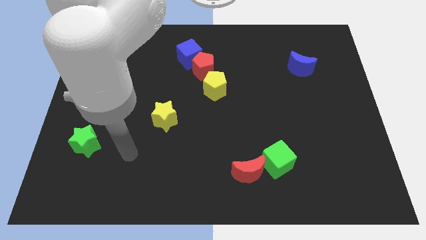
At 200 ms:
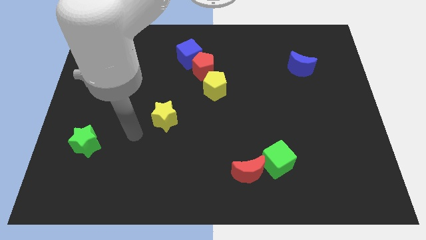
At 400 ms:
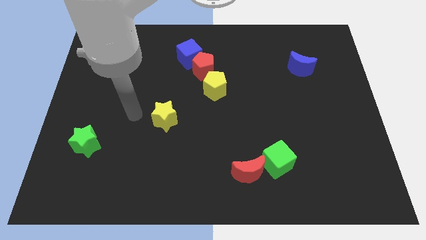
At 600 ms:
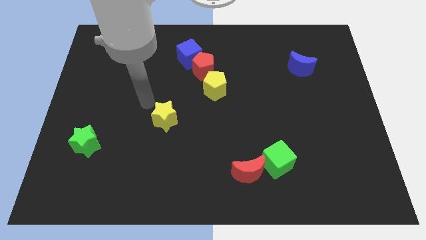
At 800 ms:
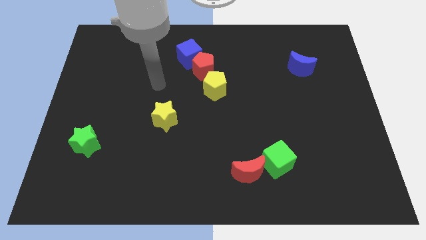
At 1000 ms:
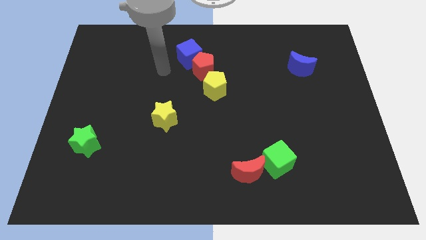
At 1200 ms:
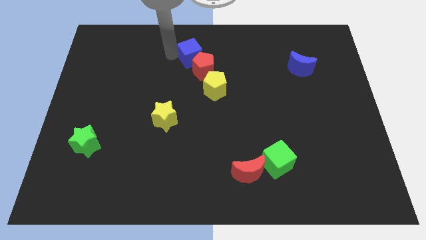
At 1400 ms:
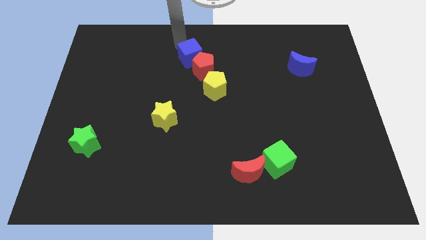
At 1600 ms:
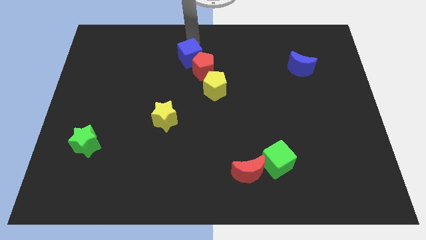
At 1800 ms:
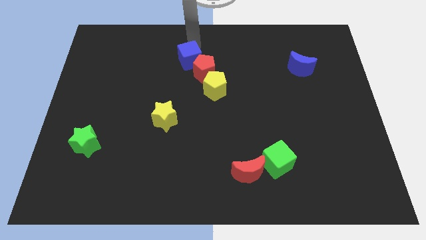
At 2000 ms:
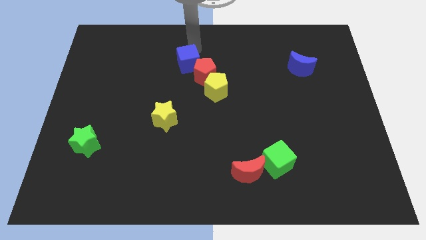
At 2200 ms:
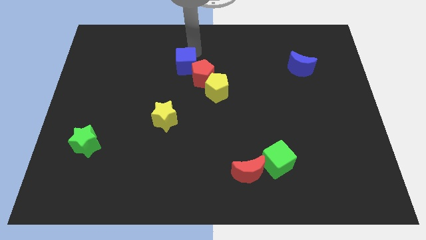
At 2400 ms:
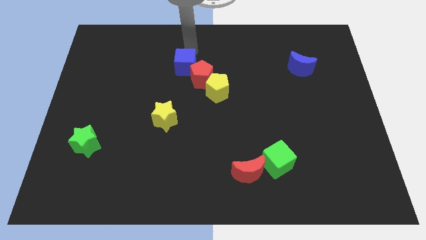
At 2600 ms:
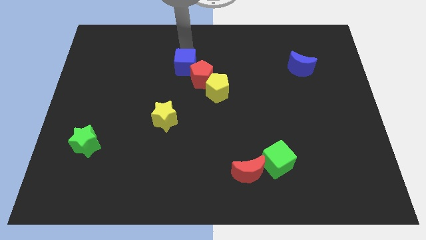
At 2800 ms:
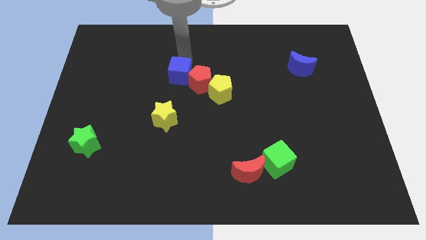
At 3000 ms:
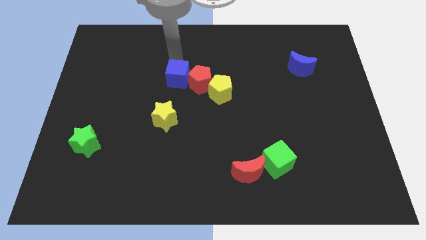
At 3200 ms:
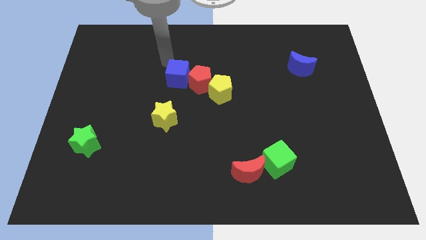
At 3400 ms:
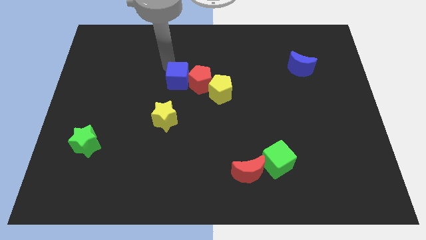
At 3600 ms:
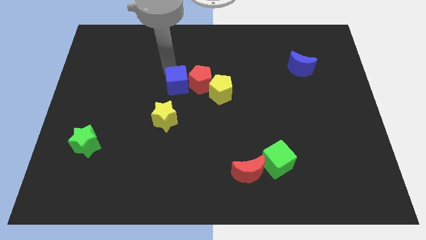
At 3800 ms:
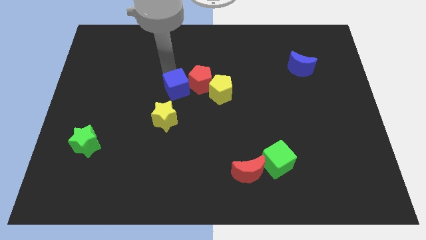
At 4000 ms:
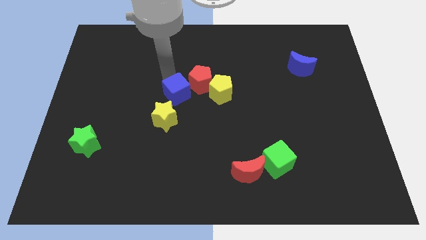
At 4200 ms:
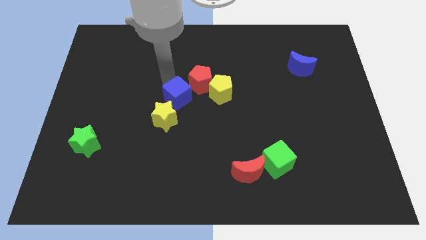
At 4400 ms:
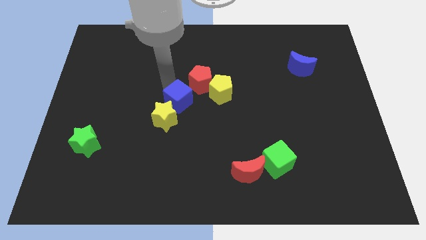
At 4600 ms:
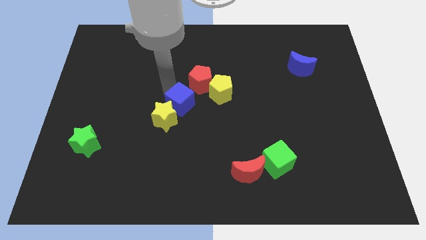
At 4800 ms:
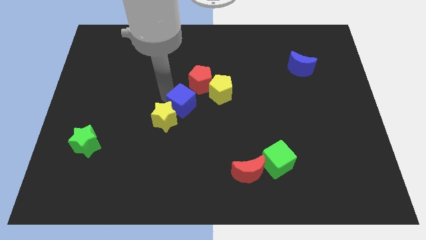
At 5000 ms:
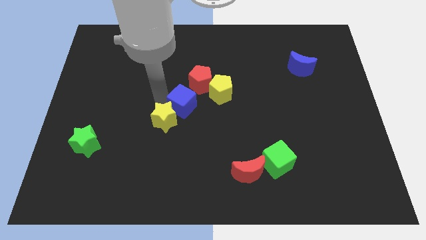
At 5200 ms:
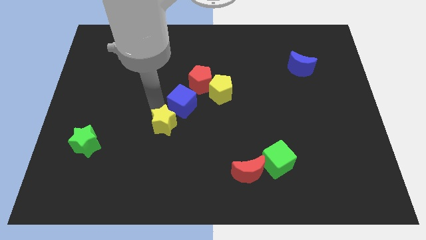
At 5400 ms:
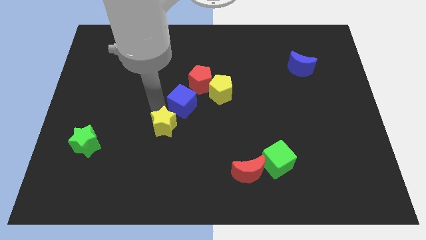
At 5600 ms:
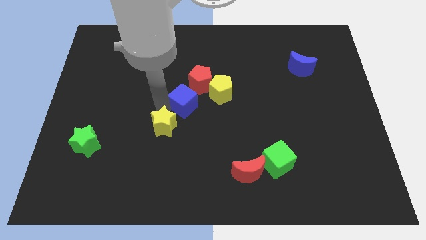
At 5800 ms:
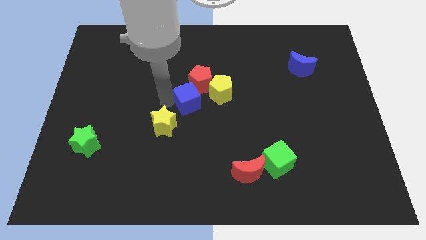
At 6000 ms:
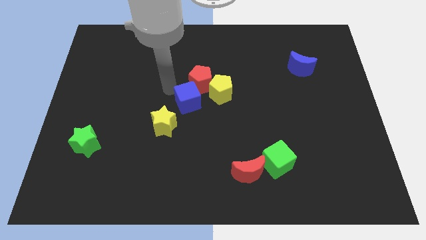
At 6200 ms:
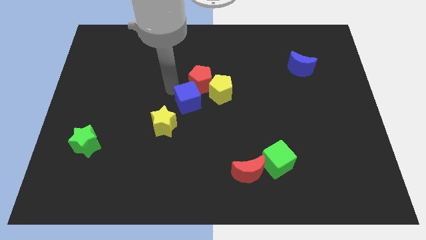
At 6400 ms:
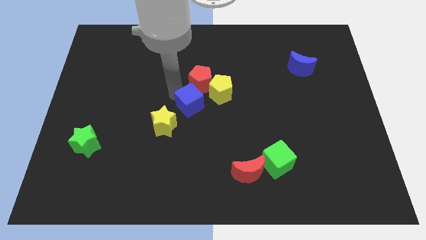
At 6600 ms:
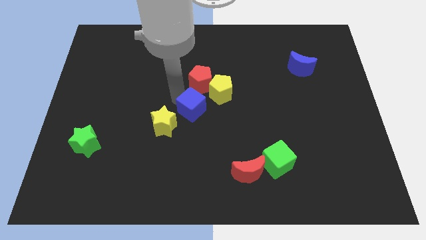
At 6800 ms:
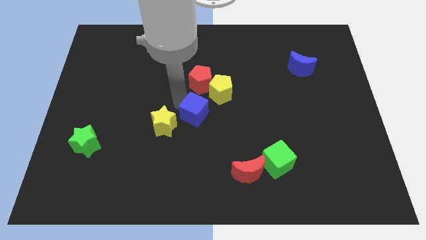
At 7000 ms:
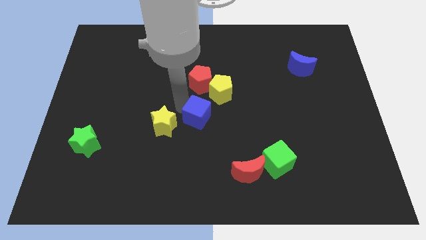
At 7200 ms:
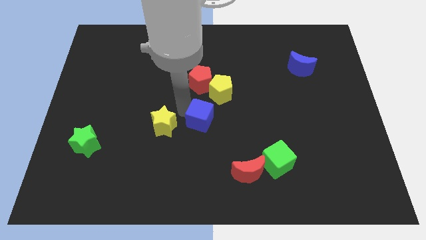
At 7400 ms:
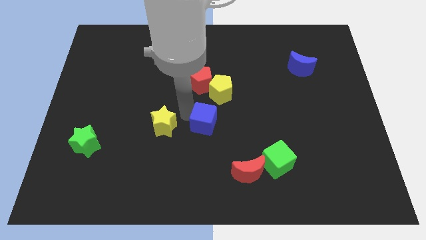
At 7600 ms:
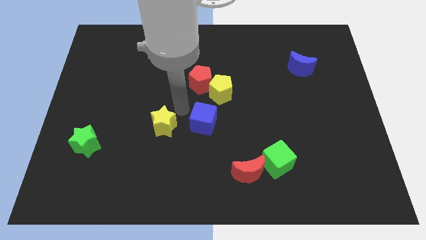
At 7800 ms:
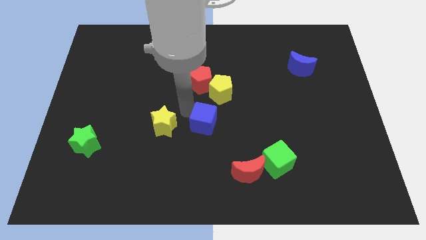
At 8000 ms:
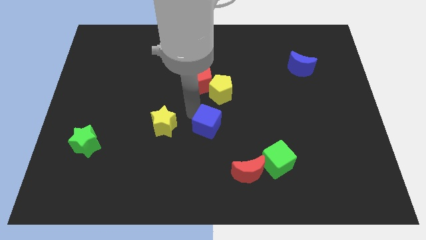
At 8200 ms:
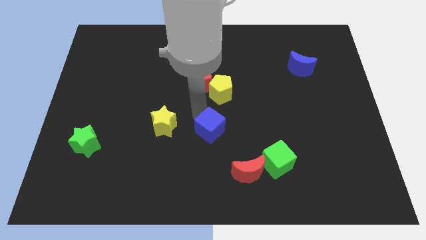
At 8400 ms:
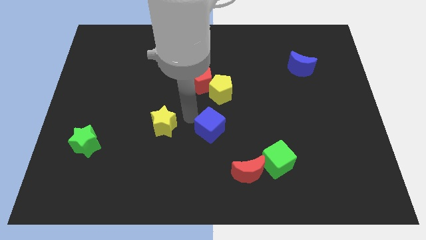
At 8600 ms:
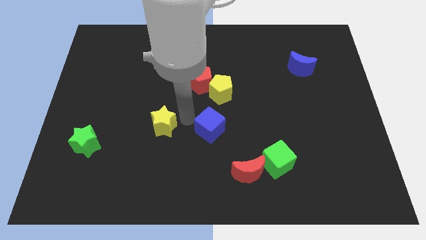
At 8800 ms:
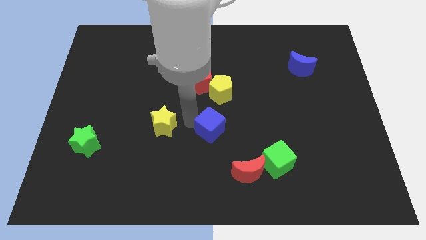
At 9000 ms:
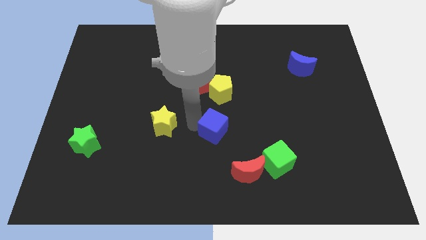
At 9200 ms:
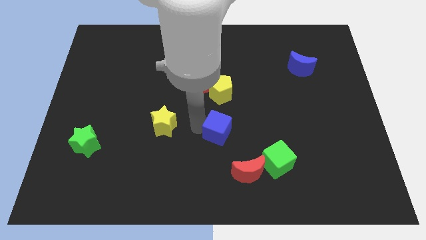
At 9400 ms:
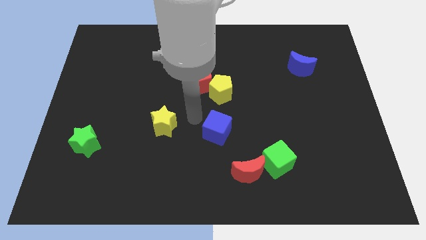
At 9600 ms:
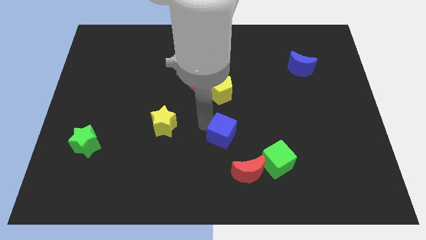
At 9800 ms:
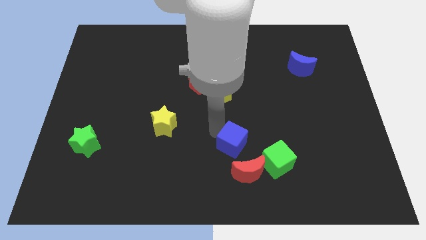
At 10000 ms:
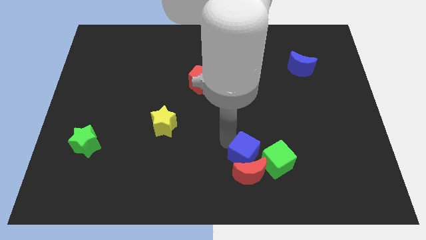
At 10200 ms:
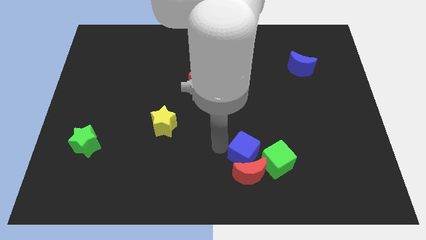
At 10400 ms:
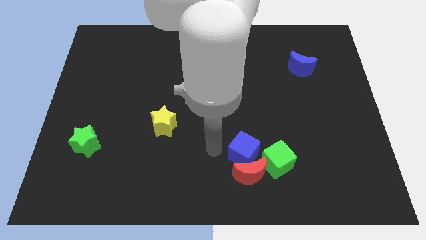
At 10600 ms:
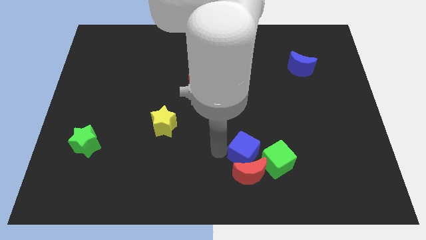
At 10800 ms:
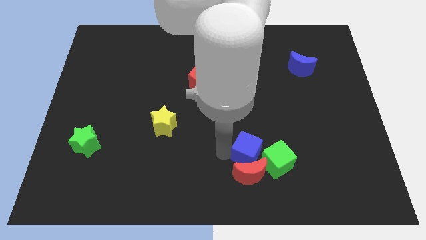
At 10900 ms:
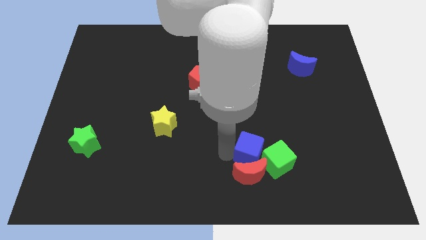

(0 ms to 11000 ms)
put the blue cube close to the green cube
